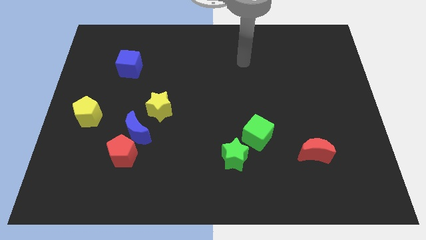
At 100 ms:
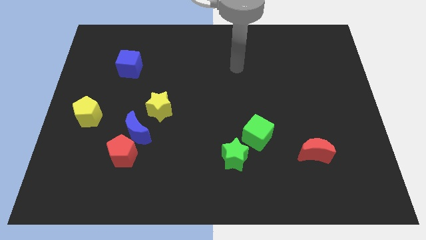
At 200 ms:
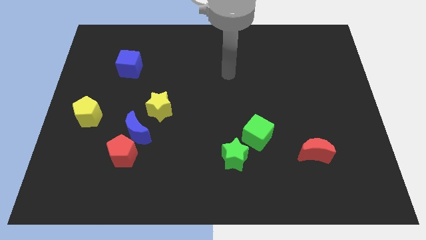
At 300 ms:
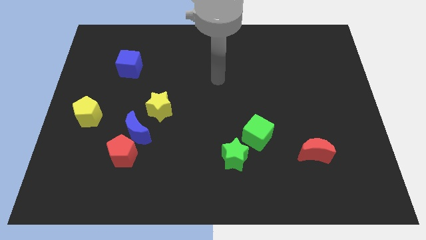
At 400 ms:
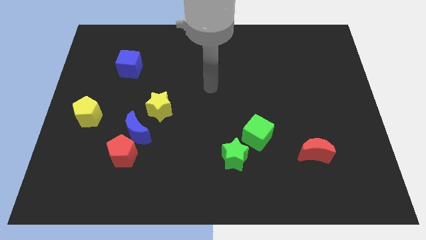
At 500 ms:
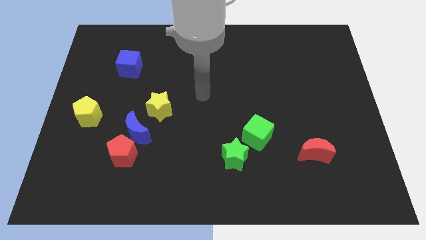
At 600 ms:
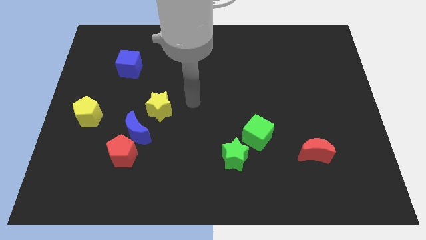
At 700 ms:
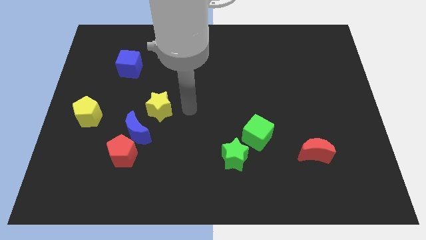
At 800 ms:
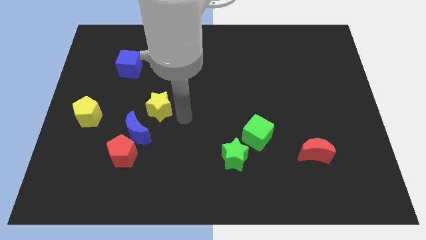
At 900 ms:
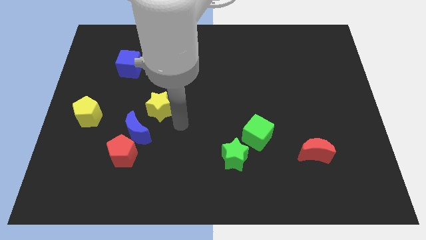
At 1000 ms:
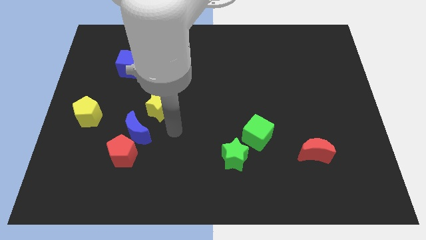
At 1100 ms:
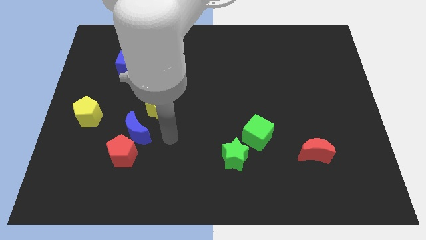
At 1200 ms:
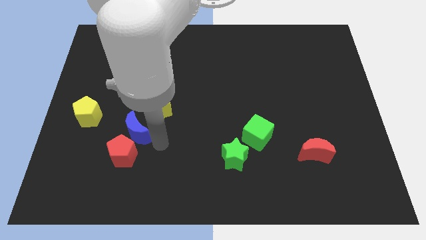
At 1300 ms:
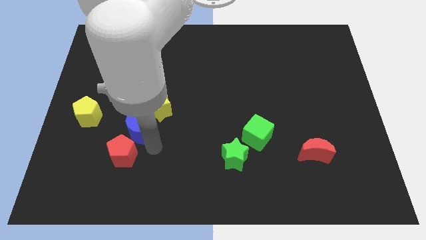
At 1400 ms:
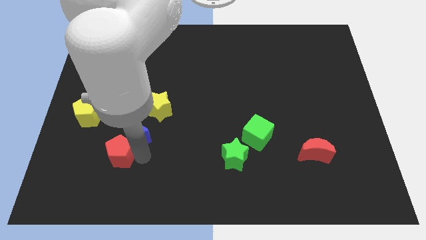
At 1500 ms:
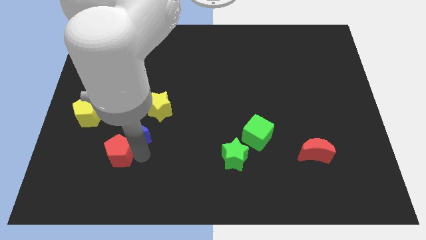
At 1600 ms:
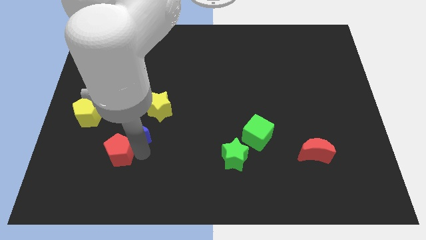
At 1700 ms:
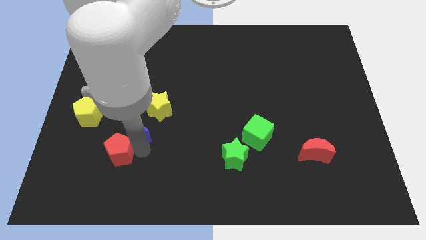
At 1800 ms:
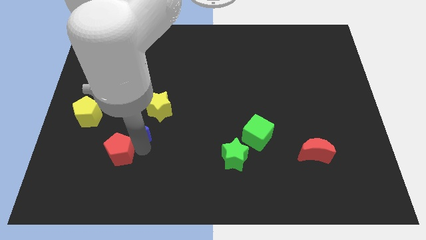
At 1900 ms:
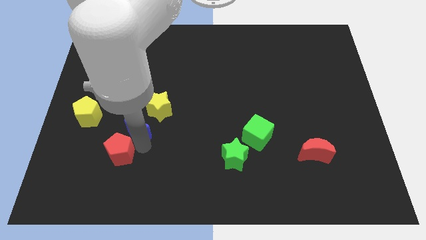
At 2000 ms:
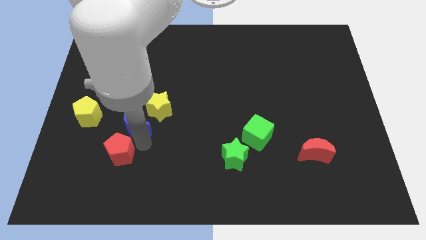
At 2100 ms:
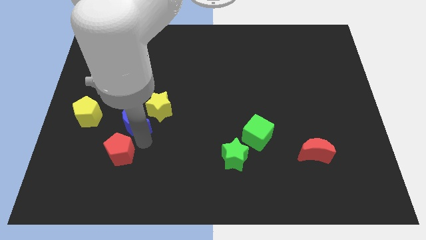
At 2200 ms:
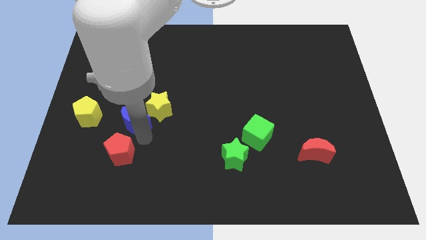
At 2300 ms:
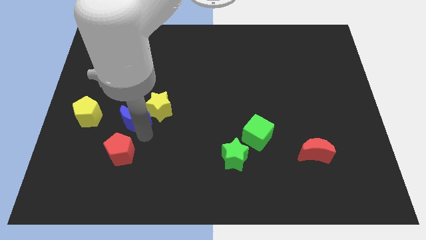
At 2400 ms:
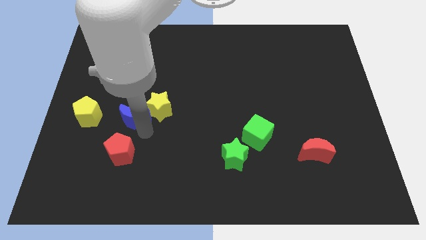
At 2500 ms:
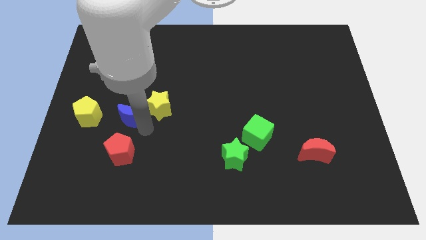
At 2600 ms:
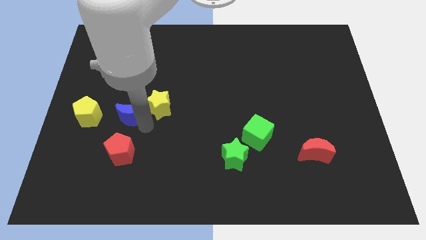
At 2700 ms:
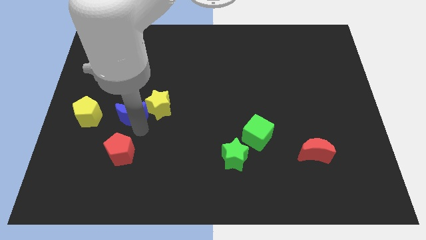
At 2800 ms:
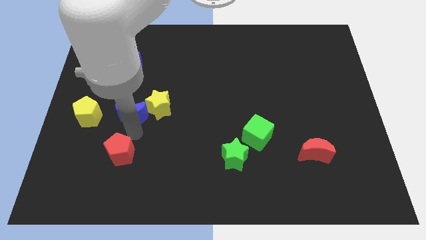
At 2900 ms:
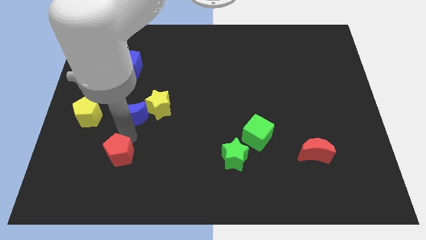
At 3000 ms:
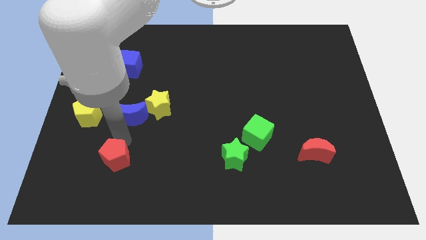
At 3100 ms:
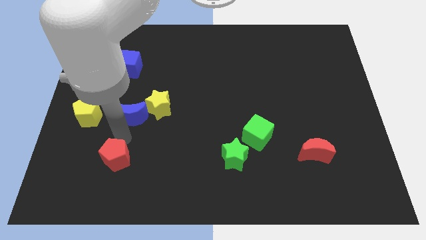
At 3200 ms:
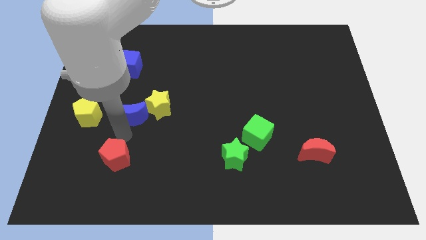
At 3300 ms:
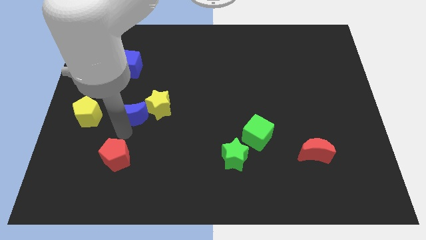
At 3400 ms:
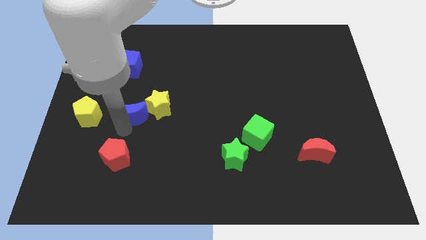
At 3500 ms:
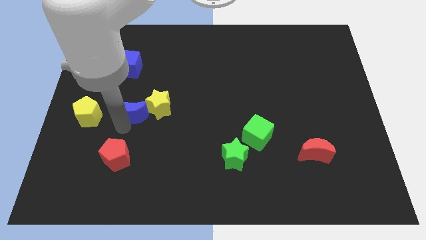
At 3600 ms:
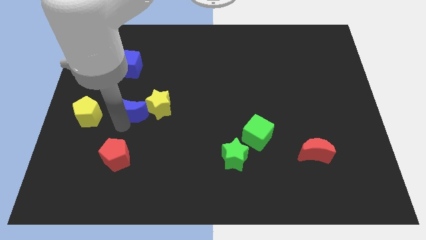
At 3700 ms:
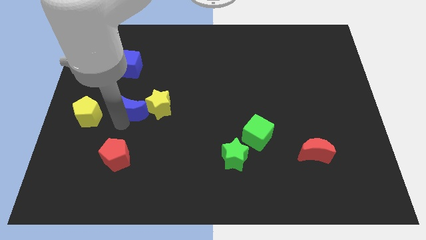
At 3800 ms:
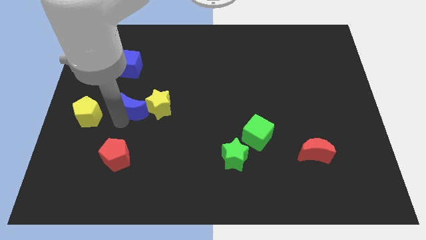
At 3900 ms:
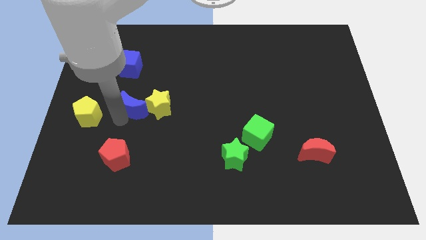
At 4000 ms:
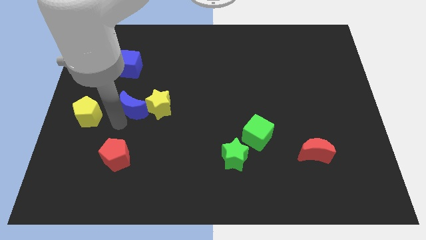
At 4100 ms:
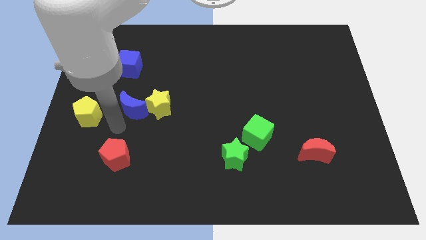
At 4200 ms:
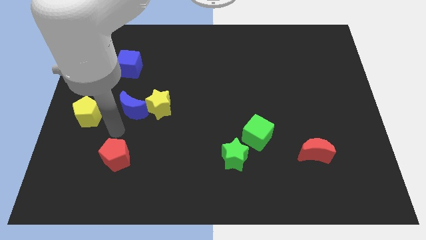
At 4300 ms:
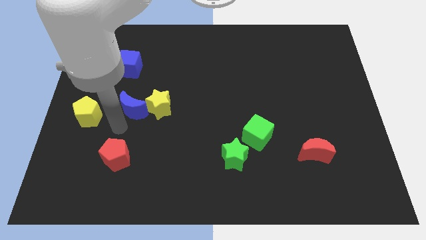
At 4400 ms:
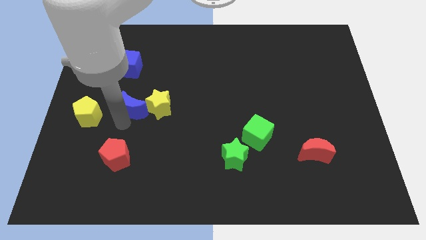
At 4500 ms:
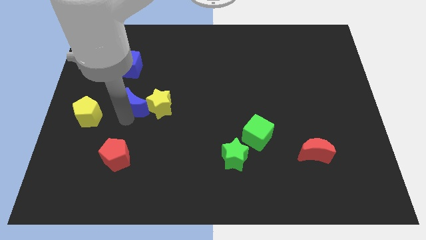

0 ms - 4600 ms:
slightly slide the blue moon up

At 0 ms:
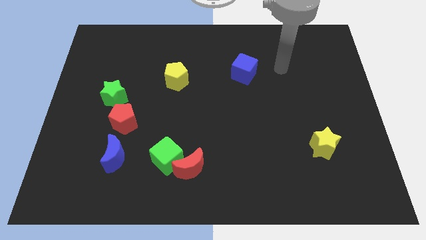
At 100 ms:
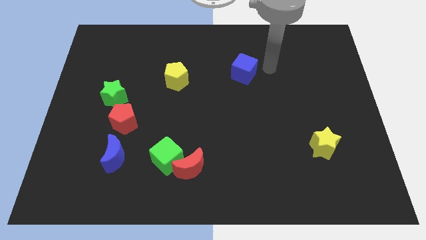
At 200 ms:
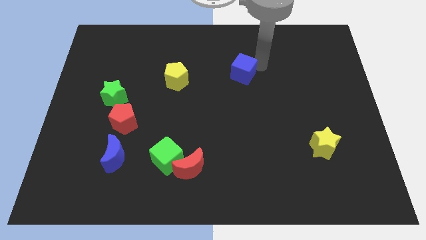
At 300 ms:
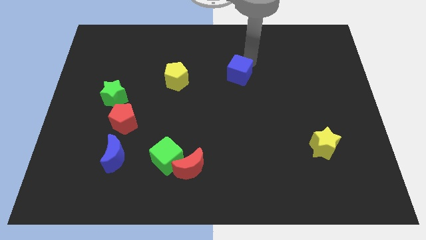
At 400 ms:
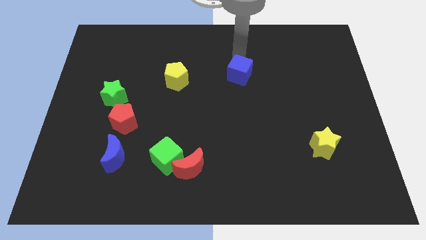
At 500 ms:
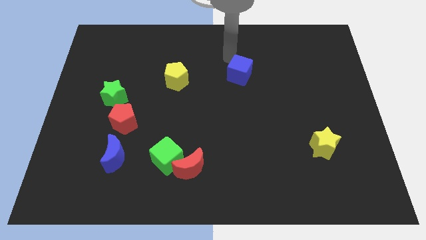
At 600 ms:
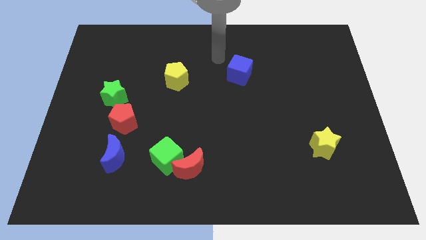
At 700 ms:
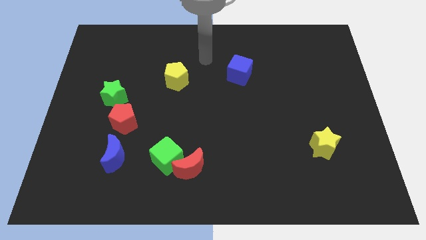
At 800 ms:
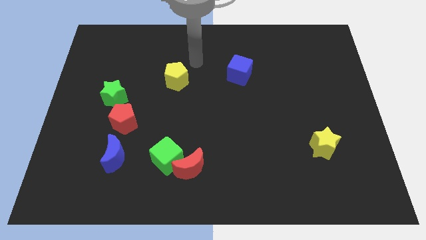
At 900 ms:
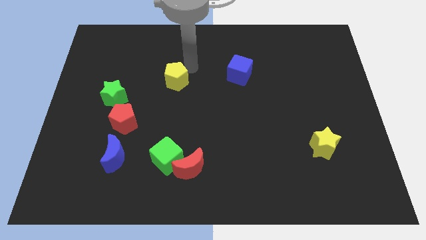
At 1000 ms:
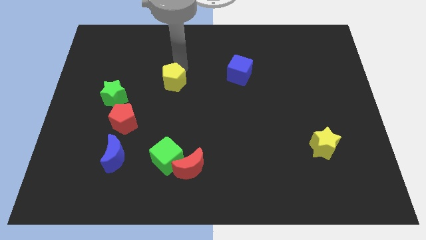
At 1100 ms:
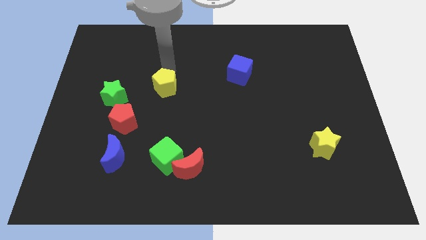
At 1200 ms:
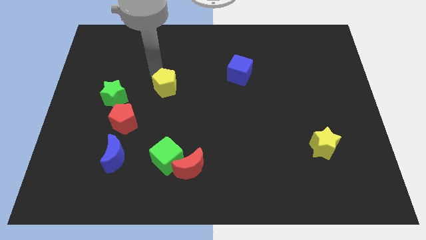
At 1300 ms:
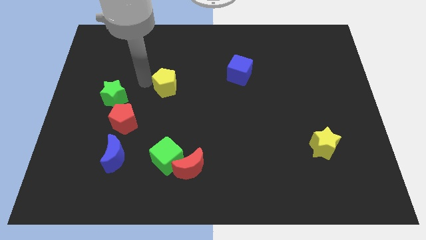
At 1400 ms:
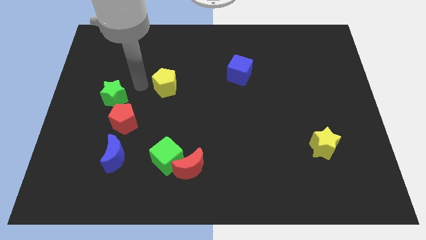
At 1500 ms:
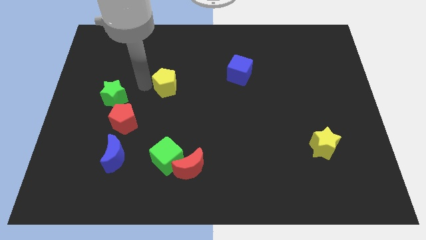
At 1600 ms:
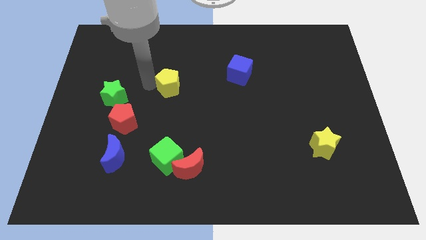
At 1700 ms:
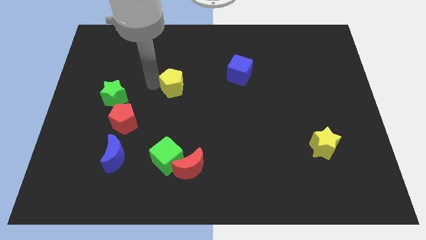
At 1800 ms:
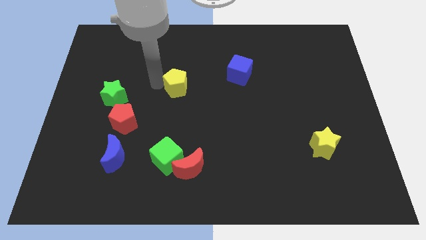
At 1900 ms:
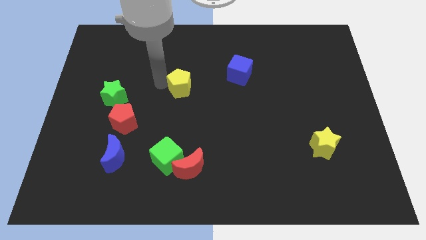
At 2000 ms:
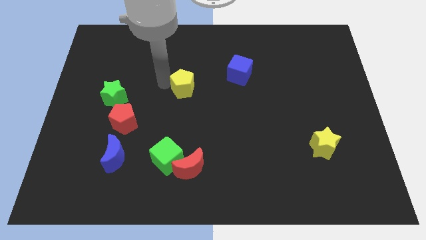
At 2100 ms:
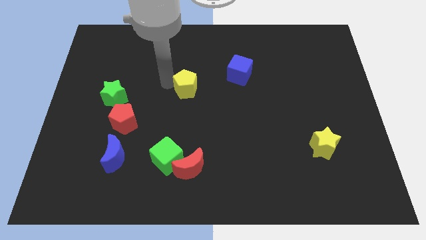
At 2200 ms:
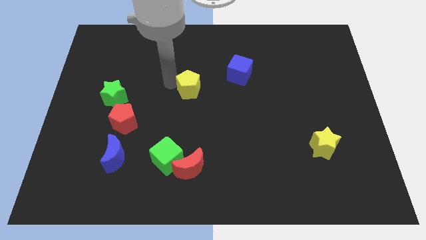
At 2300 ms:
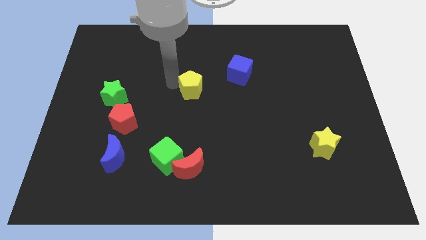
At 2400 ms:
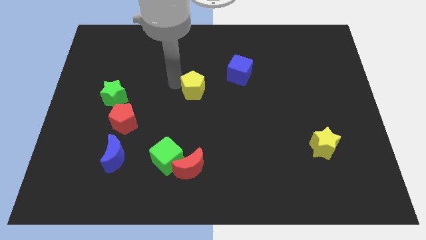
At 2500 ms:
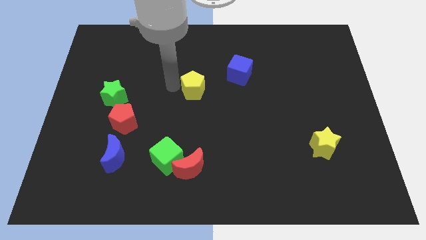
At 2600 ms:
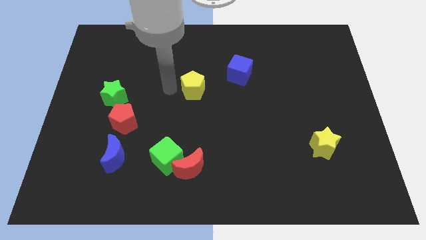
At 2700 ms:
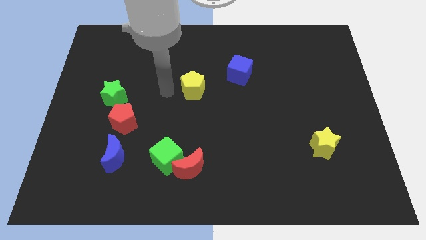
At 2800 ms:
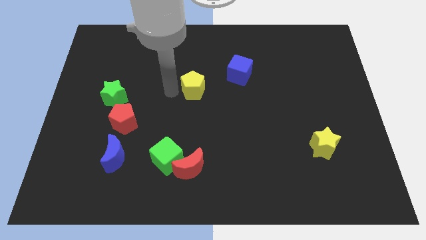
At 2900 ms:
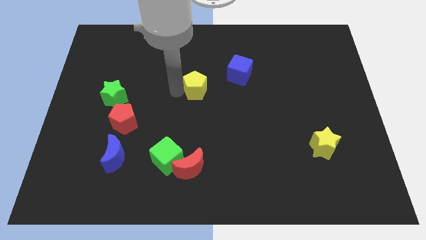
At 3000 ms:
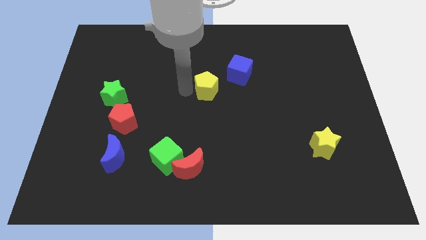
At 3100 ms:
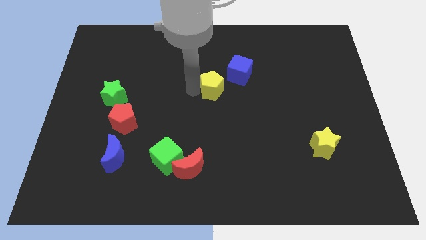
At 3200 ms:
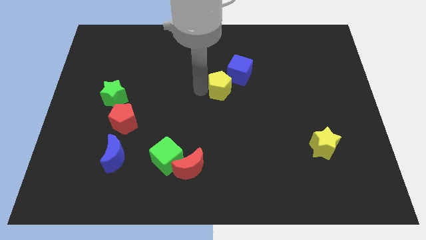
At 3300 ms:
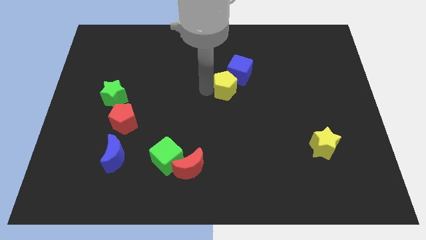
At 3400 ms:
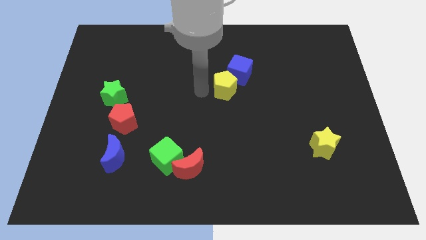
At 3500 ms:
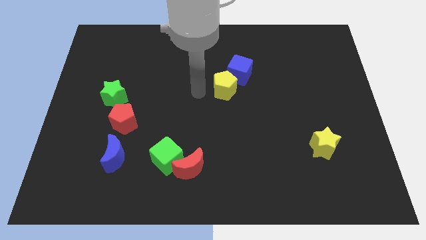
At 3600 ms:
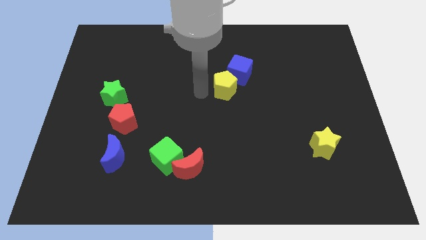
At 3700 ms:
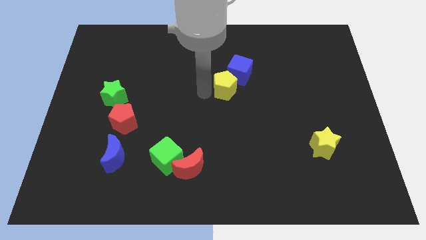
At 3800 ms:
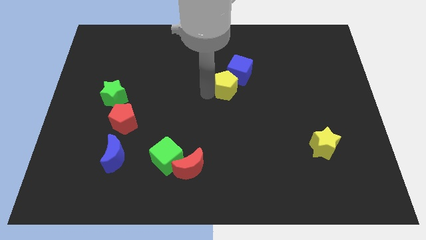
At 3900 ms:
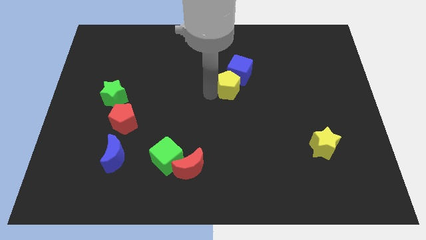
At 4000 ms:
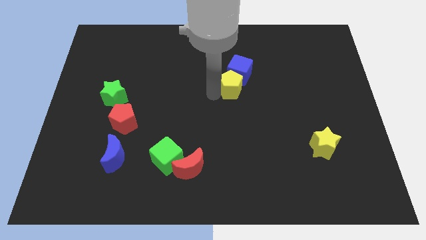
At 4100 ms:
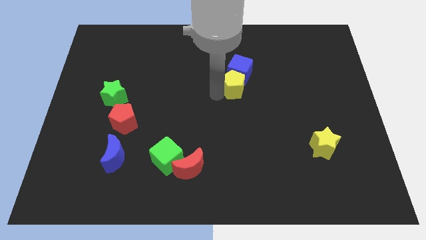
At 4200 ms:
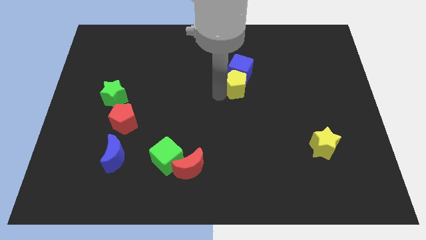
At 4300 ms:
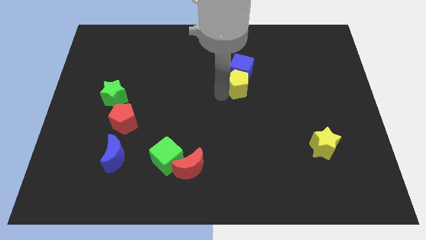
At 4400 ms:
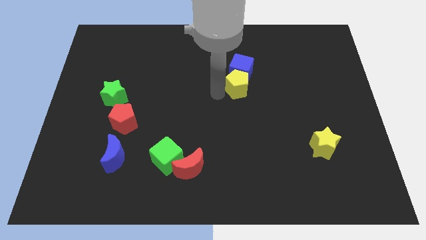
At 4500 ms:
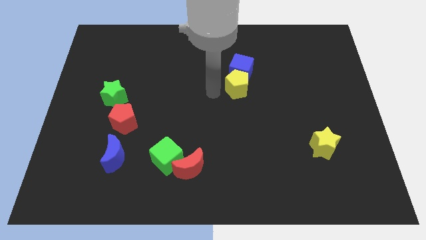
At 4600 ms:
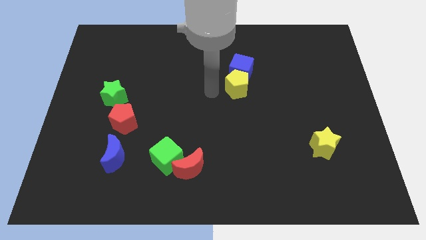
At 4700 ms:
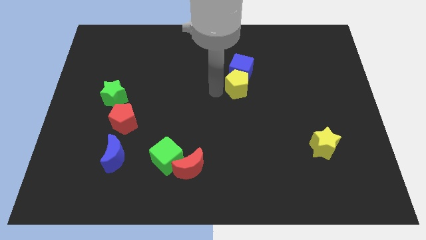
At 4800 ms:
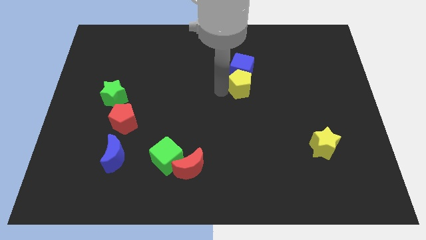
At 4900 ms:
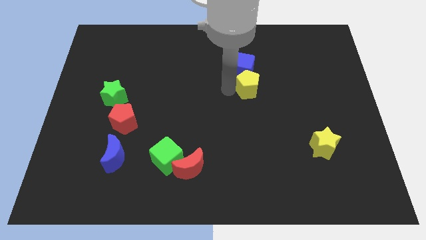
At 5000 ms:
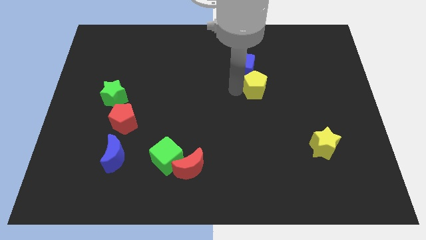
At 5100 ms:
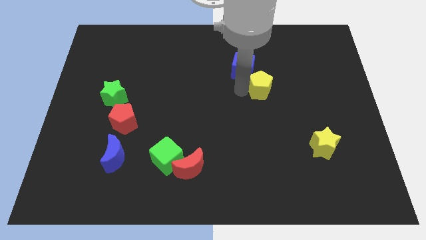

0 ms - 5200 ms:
slide the yellow pentagon to the right
